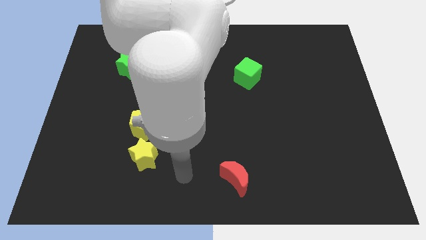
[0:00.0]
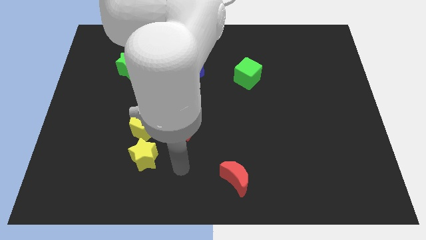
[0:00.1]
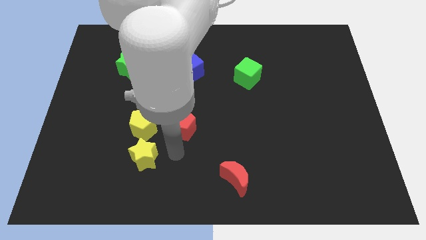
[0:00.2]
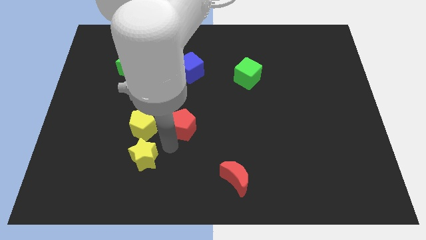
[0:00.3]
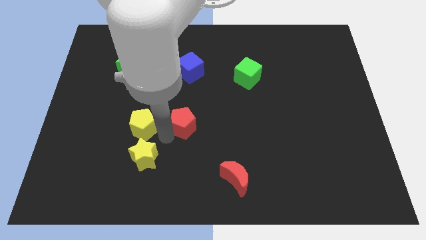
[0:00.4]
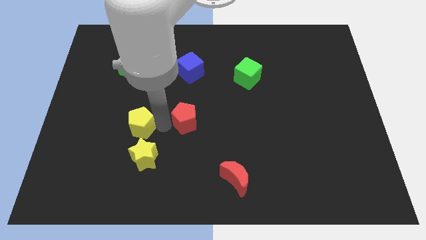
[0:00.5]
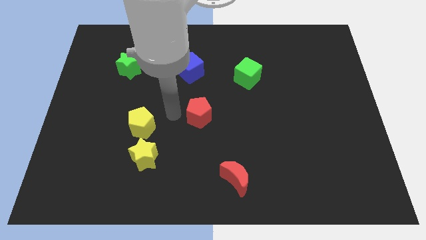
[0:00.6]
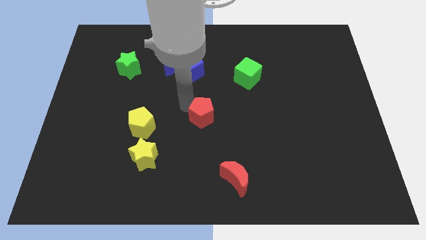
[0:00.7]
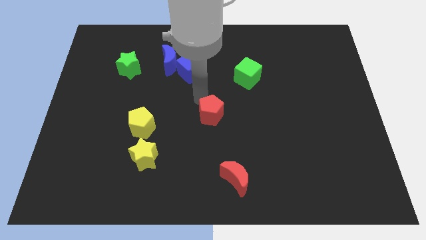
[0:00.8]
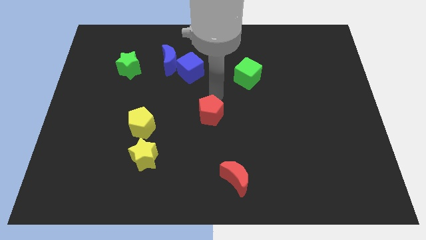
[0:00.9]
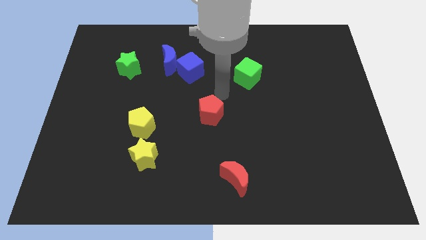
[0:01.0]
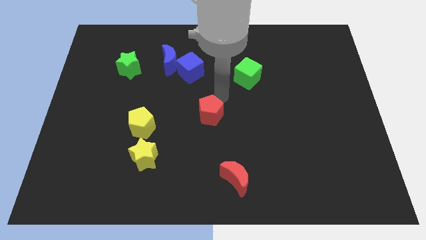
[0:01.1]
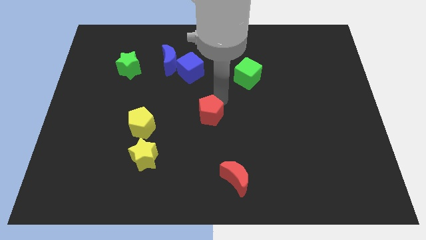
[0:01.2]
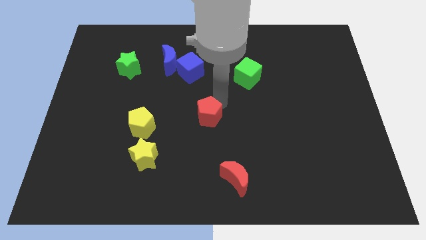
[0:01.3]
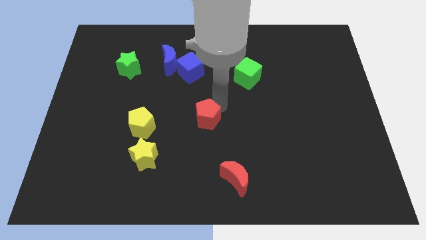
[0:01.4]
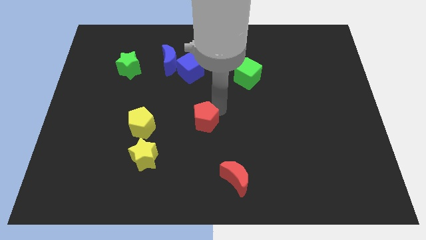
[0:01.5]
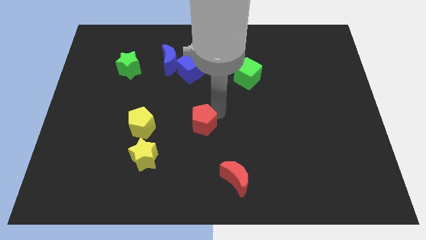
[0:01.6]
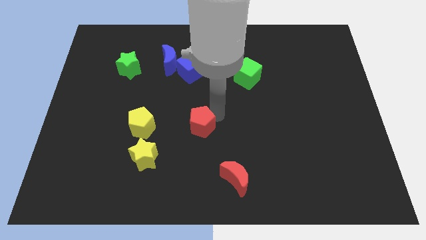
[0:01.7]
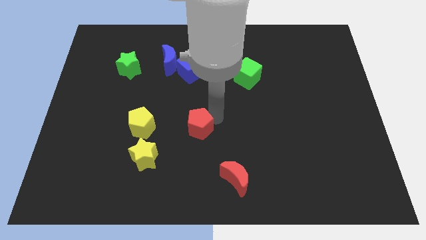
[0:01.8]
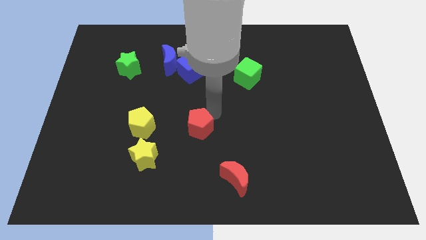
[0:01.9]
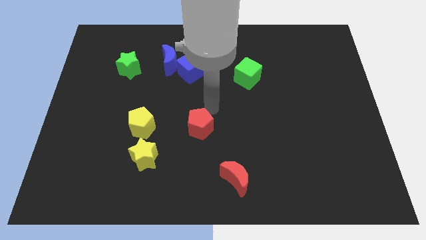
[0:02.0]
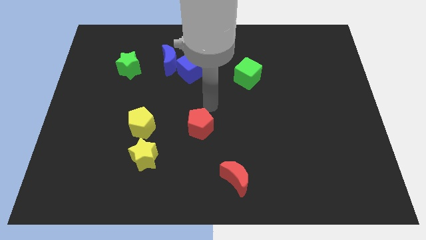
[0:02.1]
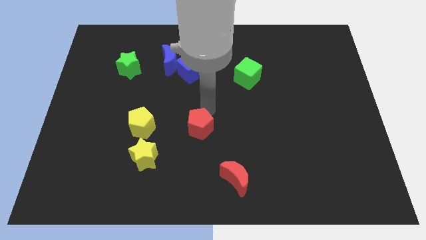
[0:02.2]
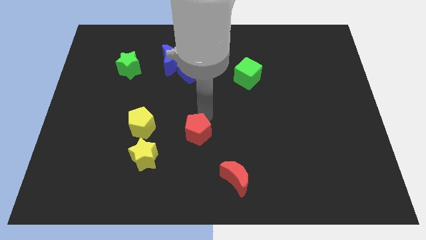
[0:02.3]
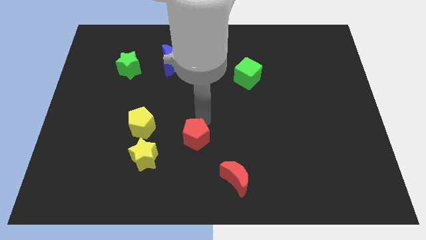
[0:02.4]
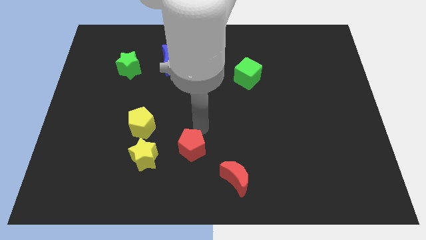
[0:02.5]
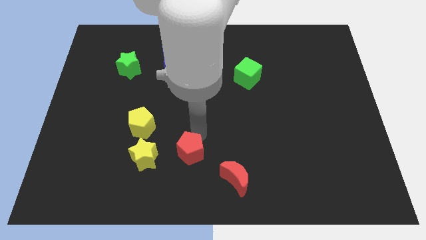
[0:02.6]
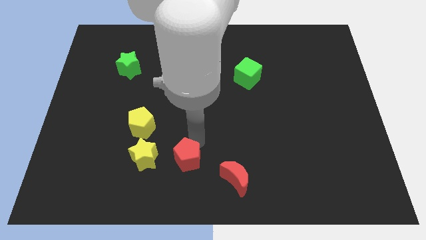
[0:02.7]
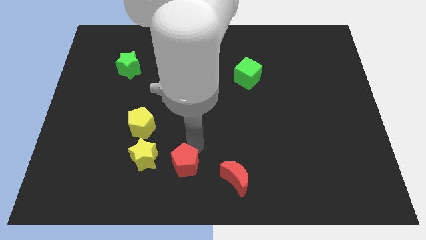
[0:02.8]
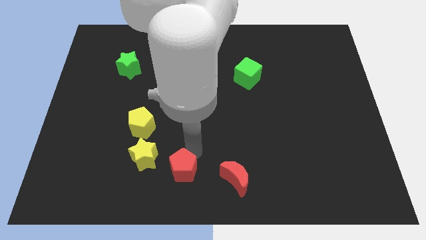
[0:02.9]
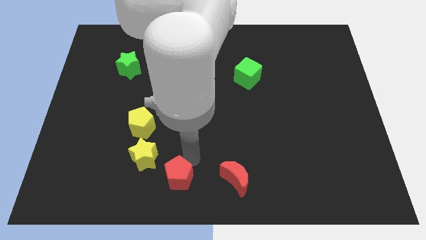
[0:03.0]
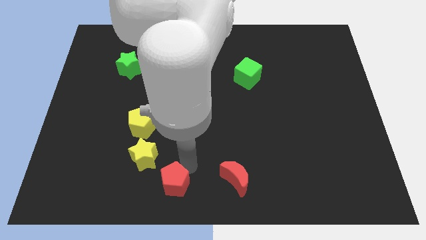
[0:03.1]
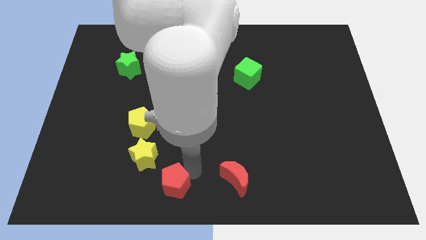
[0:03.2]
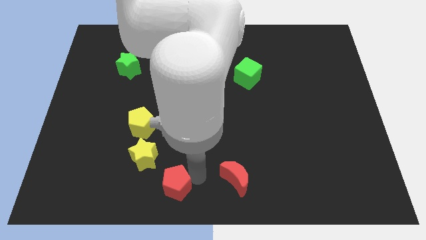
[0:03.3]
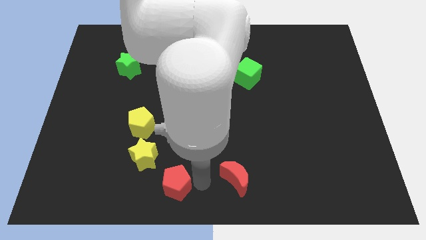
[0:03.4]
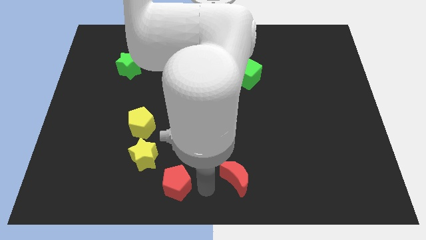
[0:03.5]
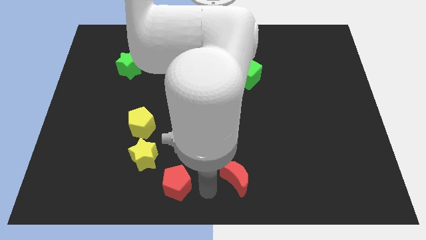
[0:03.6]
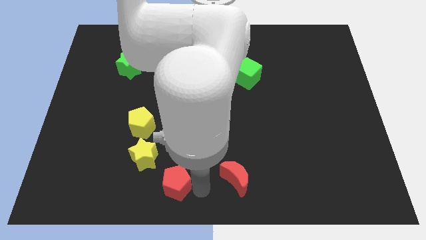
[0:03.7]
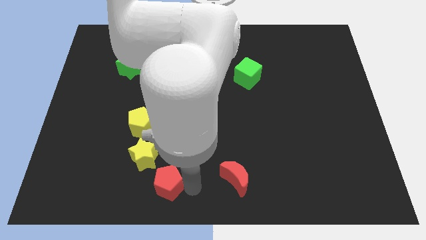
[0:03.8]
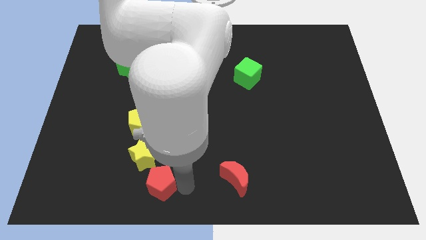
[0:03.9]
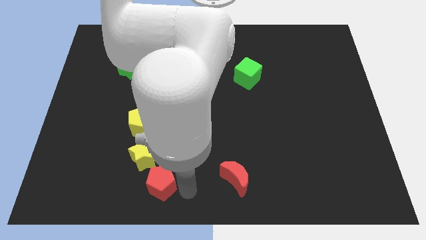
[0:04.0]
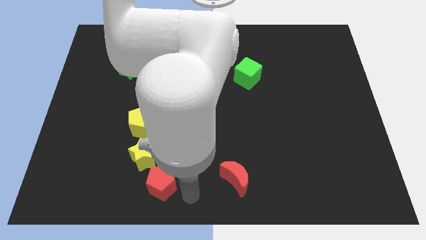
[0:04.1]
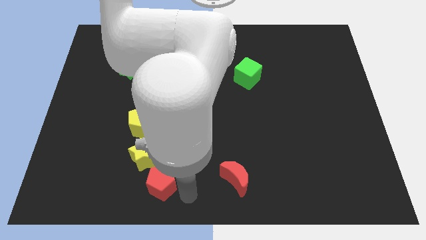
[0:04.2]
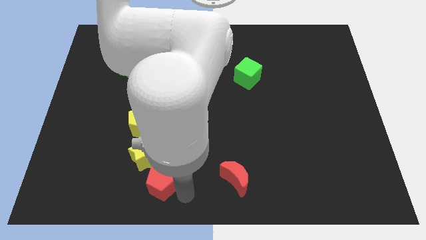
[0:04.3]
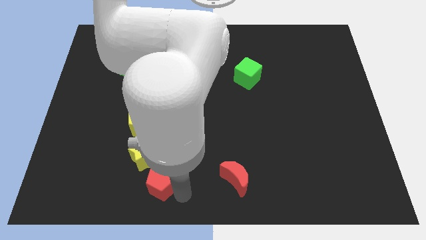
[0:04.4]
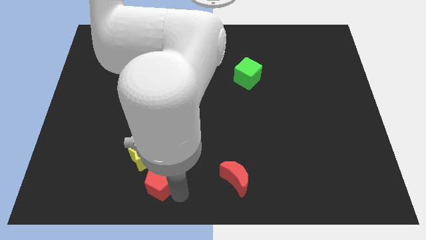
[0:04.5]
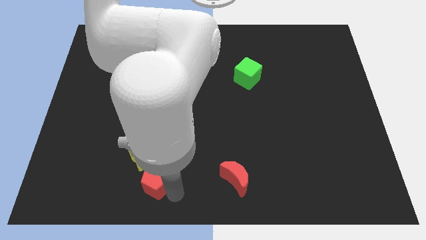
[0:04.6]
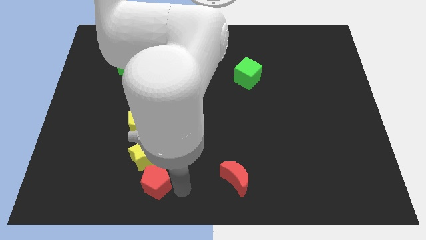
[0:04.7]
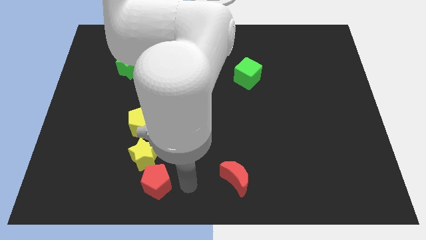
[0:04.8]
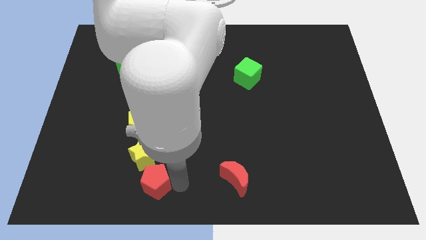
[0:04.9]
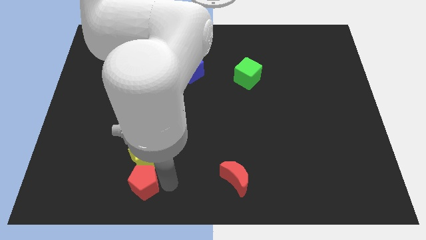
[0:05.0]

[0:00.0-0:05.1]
slide the red pentagon to the bottom left side of the yellow star

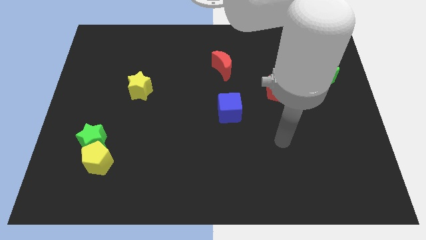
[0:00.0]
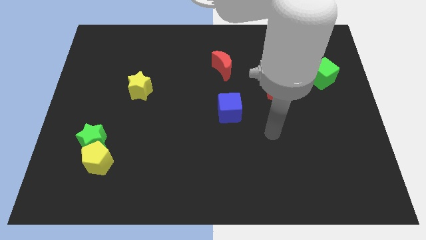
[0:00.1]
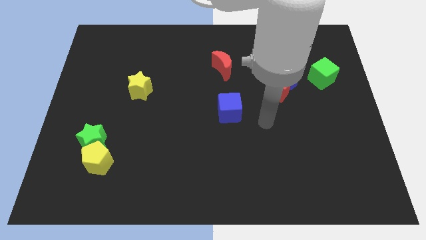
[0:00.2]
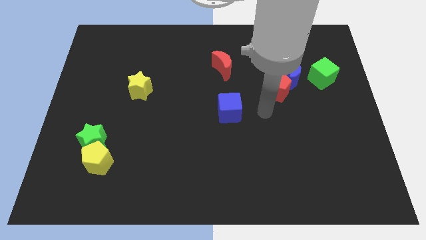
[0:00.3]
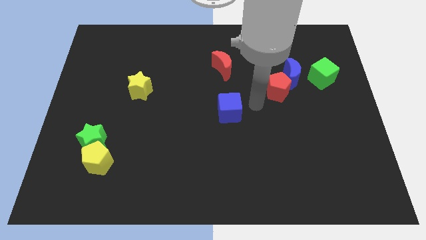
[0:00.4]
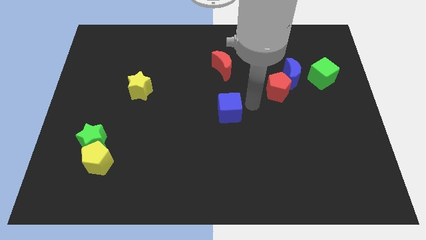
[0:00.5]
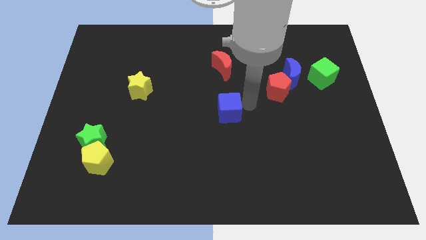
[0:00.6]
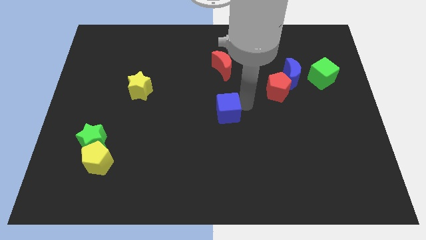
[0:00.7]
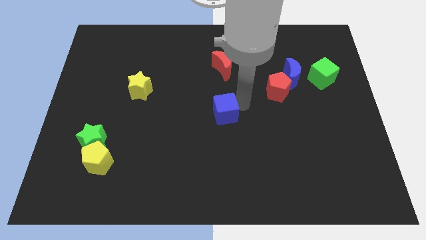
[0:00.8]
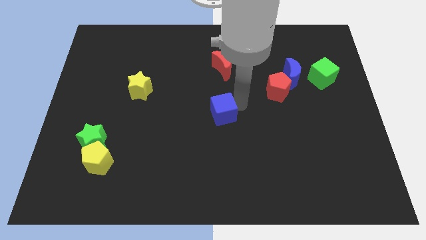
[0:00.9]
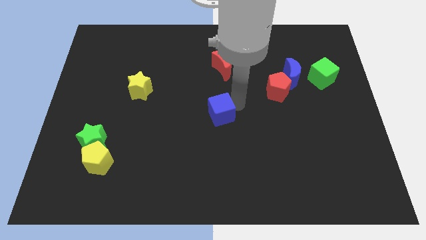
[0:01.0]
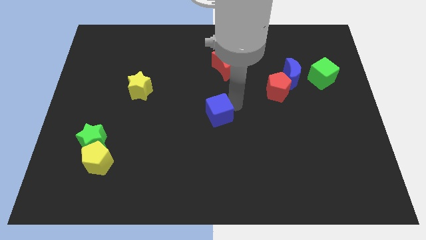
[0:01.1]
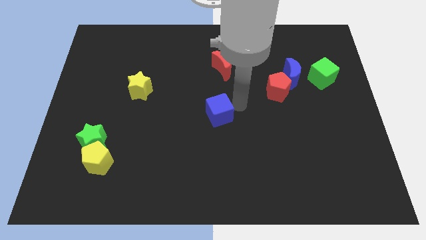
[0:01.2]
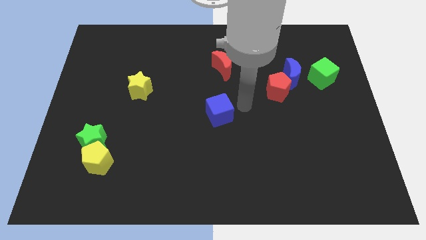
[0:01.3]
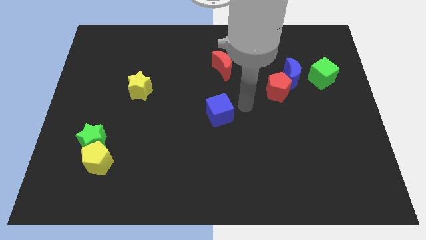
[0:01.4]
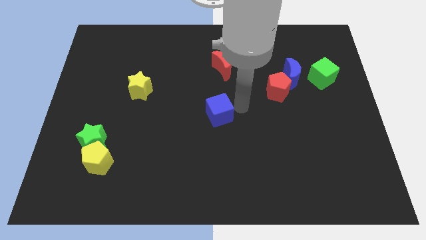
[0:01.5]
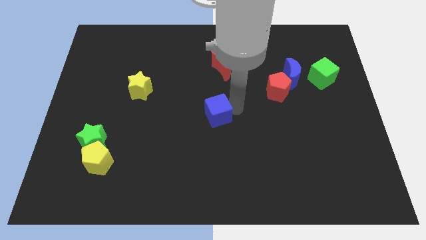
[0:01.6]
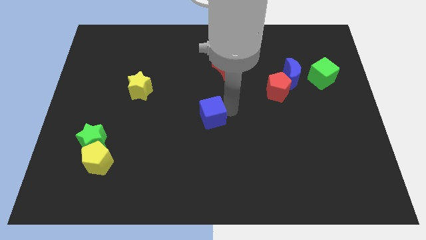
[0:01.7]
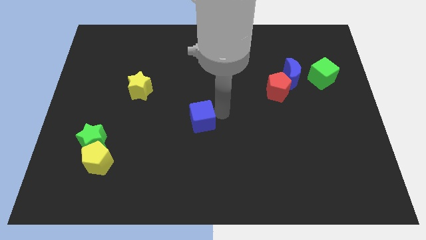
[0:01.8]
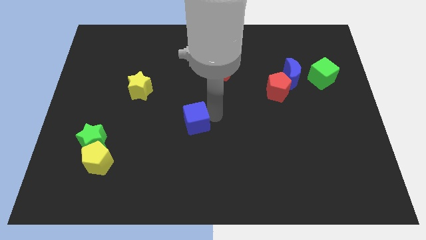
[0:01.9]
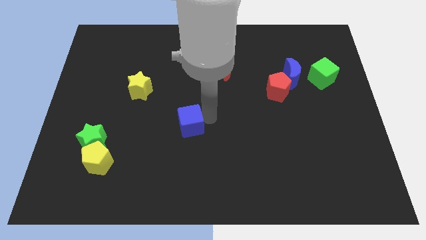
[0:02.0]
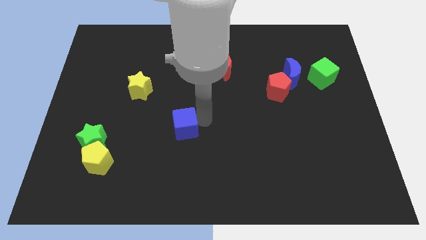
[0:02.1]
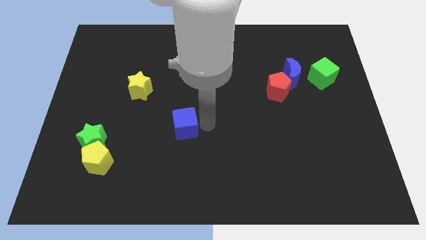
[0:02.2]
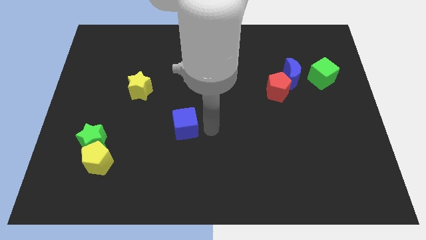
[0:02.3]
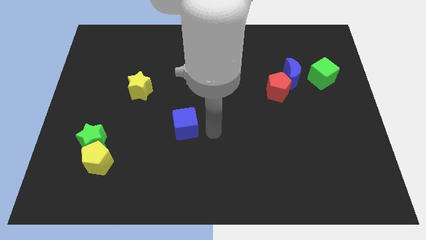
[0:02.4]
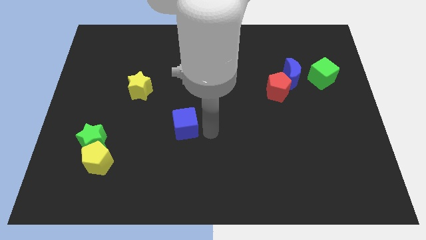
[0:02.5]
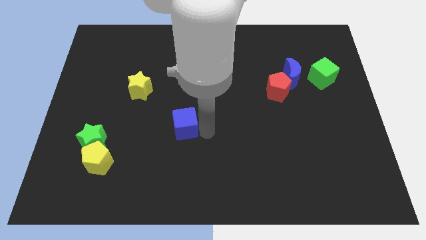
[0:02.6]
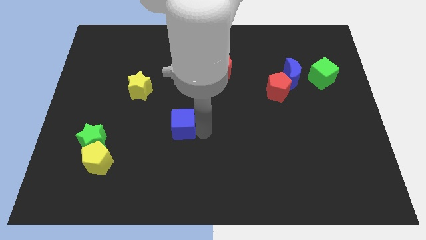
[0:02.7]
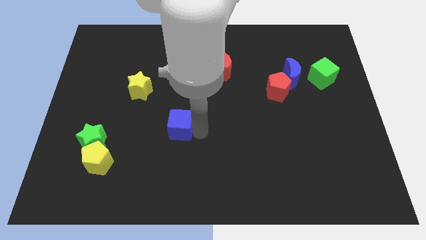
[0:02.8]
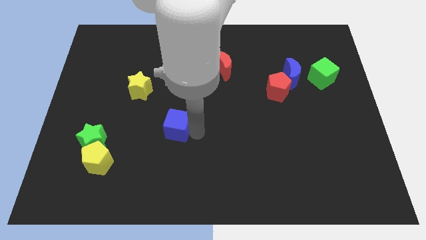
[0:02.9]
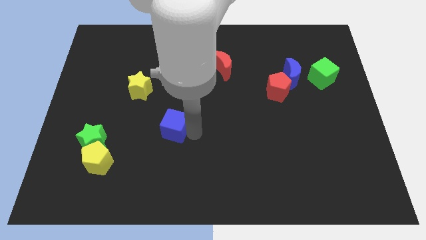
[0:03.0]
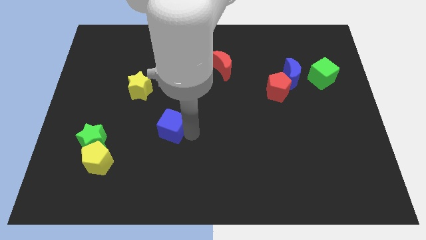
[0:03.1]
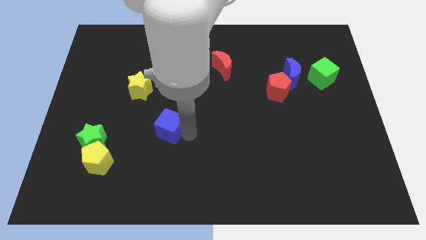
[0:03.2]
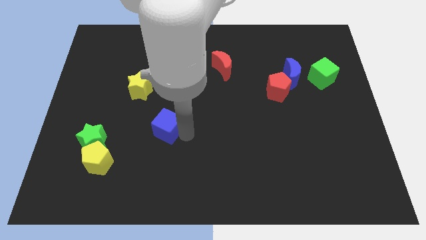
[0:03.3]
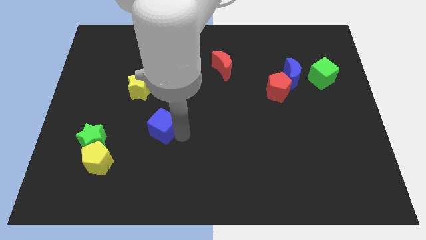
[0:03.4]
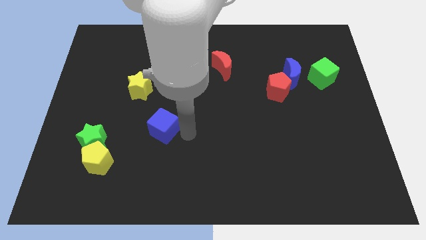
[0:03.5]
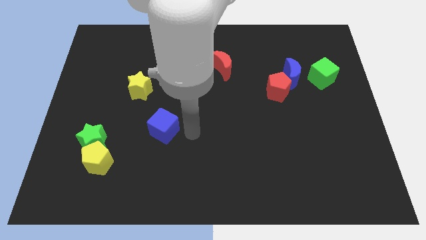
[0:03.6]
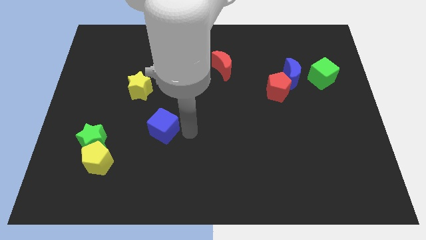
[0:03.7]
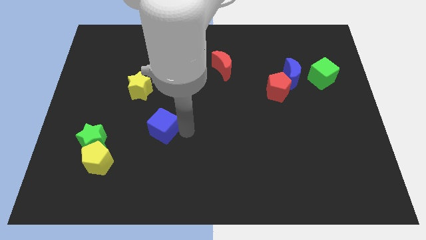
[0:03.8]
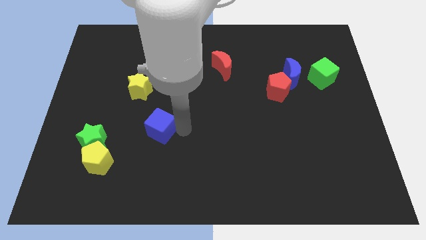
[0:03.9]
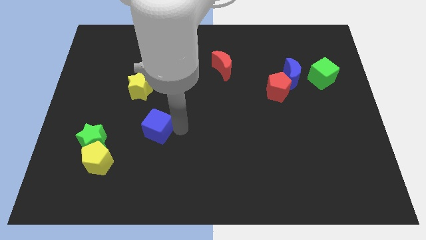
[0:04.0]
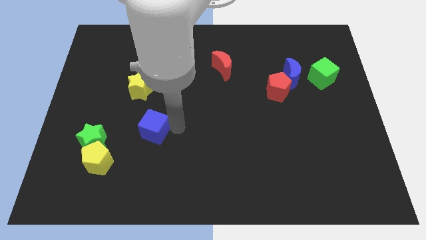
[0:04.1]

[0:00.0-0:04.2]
slide the blue cube to the bottom side of the yellow star
